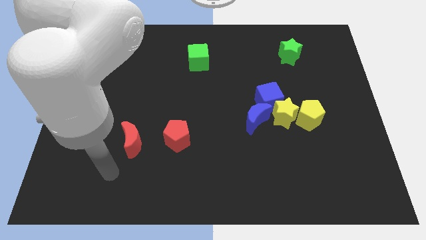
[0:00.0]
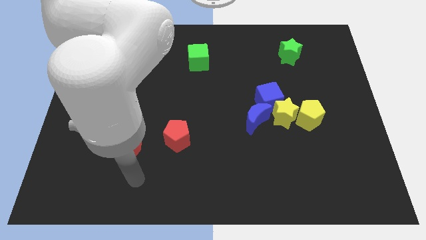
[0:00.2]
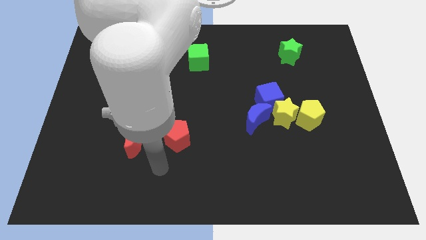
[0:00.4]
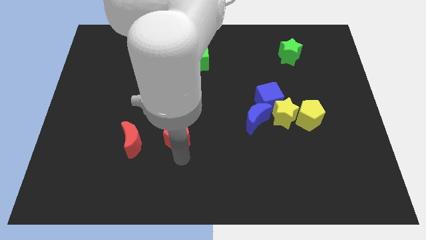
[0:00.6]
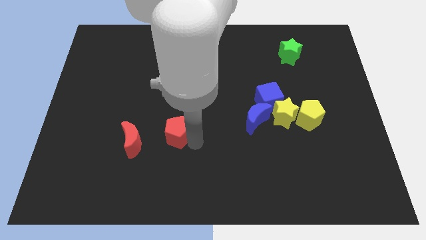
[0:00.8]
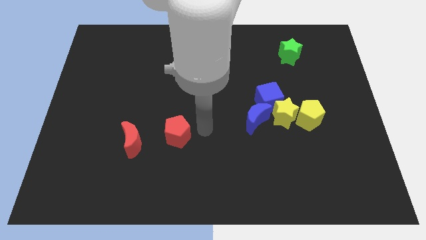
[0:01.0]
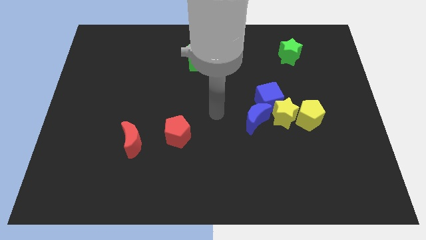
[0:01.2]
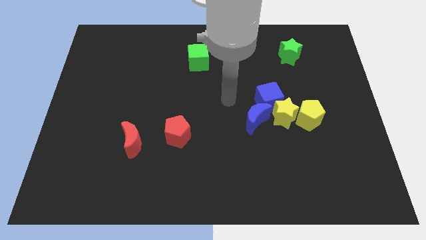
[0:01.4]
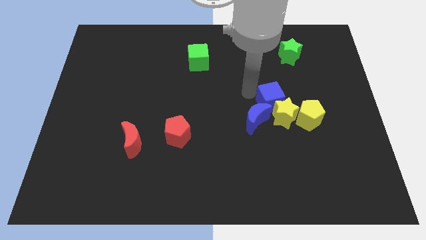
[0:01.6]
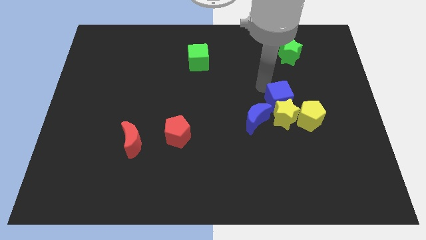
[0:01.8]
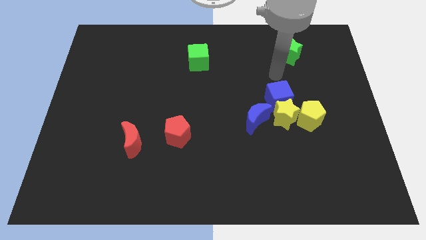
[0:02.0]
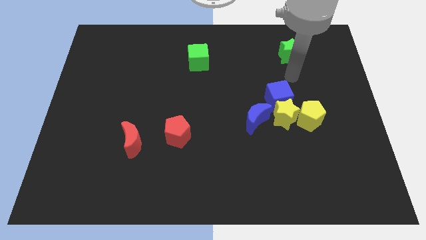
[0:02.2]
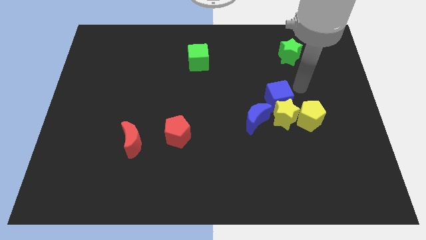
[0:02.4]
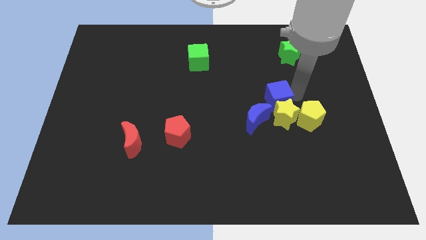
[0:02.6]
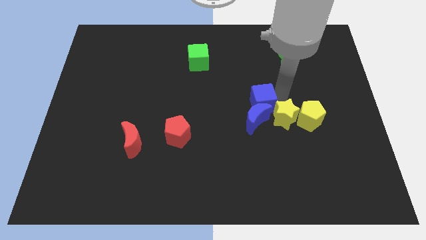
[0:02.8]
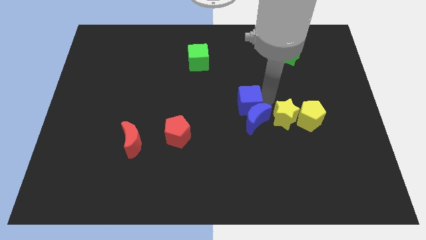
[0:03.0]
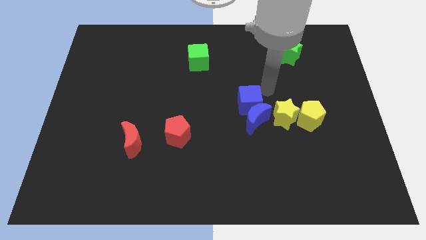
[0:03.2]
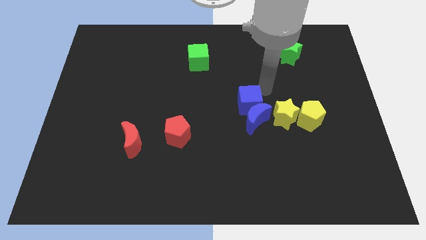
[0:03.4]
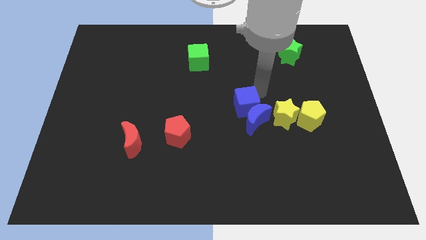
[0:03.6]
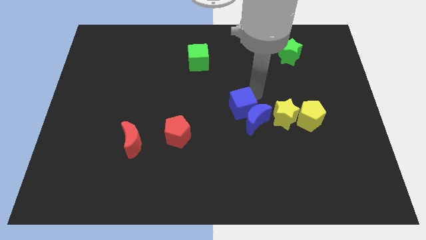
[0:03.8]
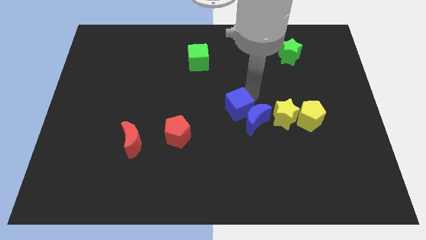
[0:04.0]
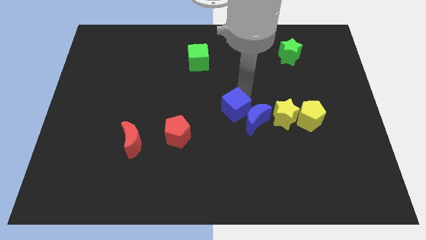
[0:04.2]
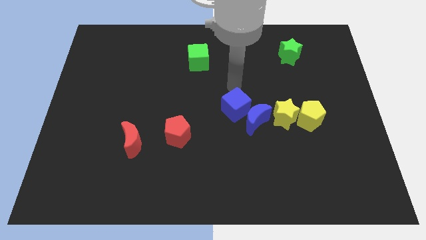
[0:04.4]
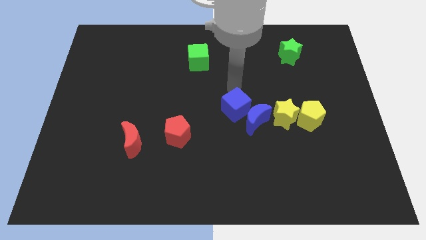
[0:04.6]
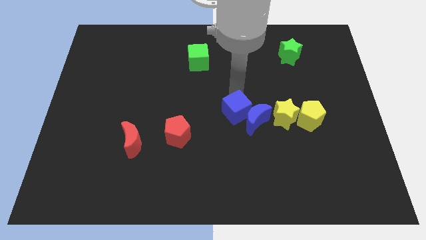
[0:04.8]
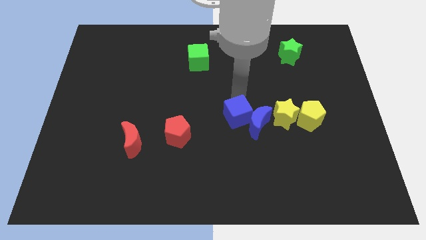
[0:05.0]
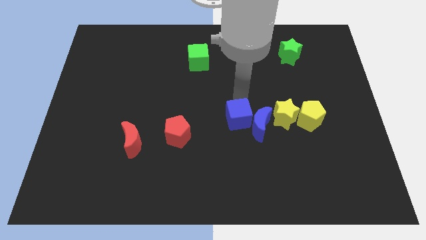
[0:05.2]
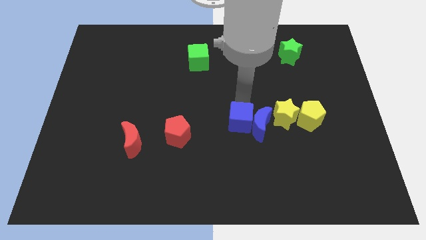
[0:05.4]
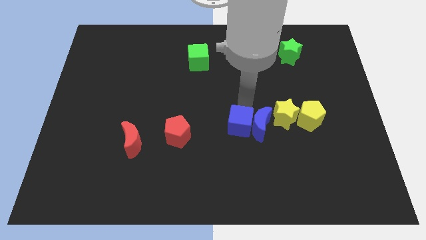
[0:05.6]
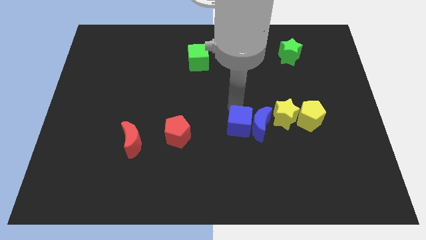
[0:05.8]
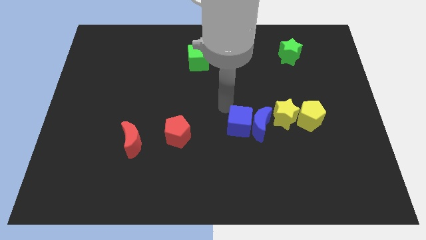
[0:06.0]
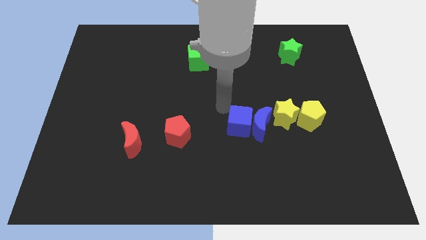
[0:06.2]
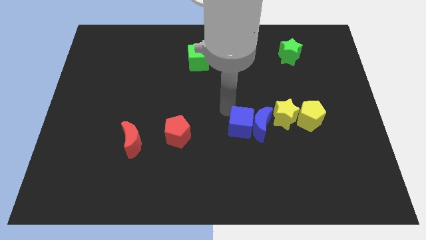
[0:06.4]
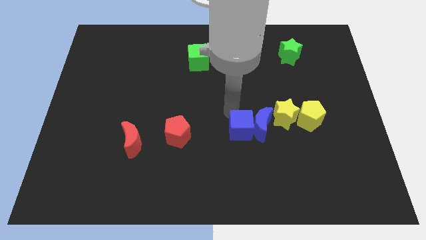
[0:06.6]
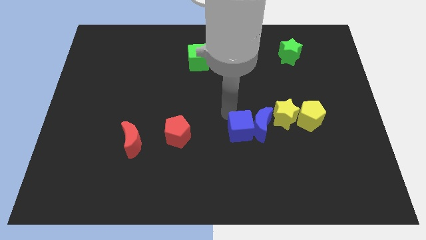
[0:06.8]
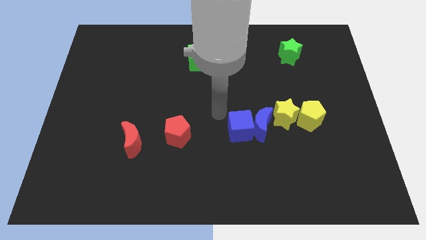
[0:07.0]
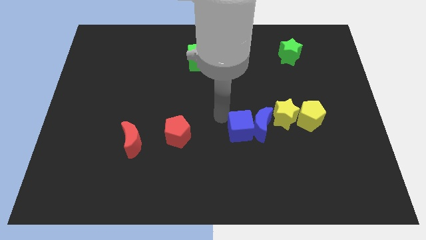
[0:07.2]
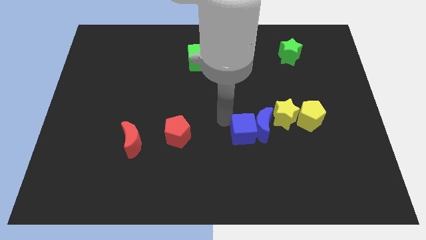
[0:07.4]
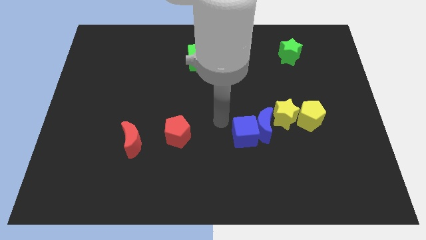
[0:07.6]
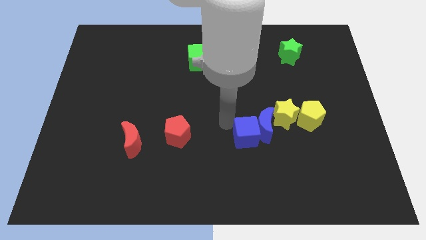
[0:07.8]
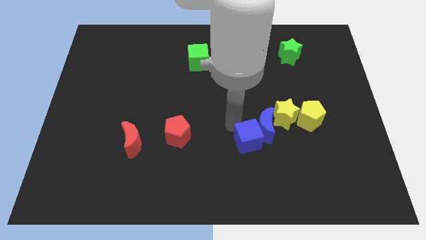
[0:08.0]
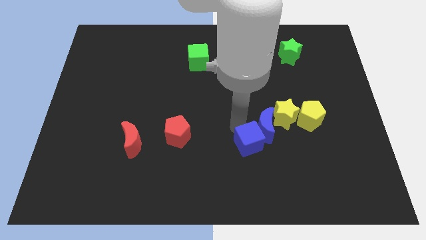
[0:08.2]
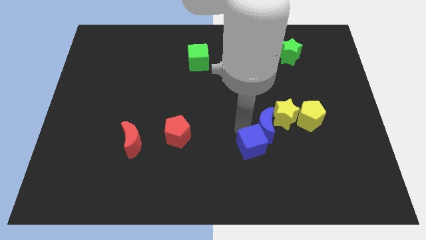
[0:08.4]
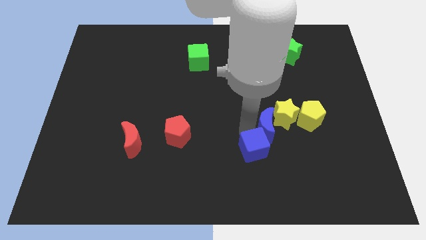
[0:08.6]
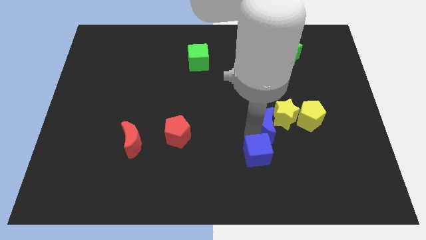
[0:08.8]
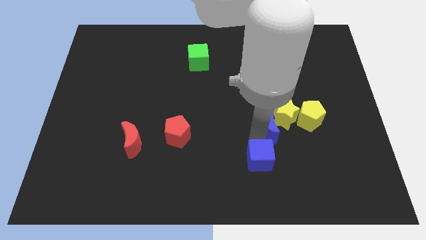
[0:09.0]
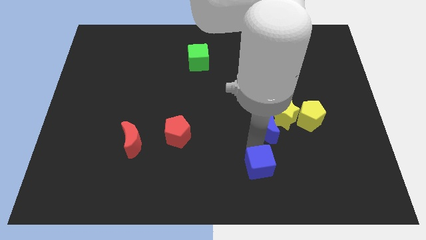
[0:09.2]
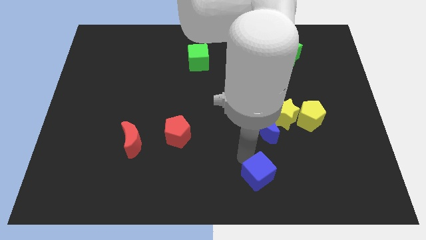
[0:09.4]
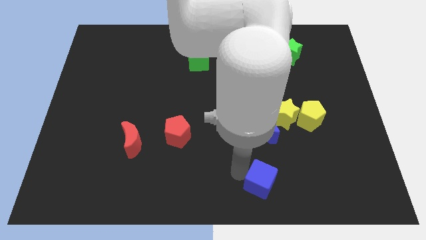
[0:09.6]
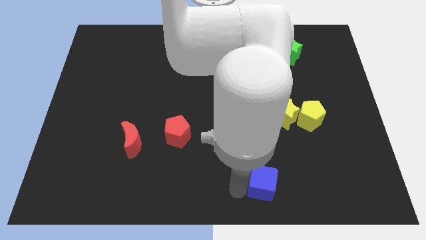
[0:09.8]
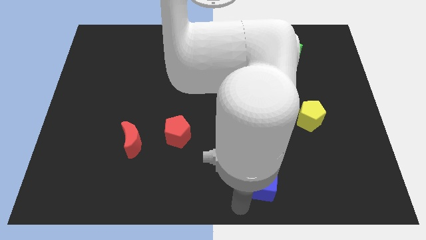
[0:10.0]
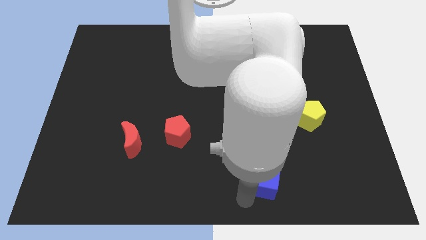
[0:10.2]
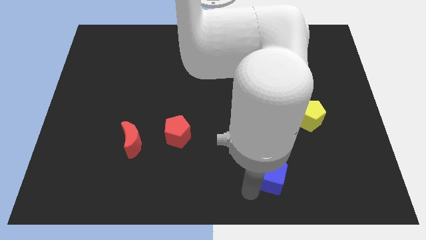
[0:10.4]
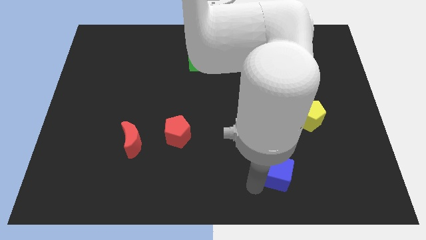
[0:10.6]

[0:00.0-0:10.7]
put the blue cube to the bottom of the yellow star

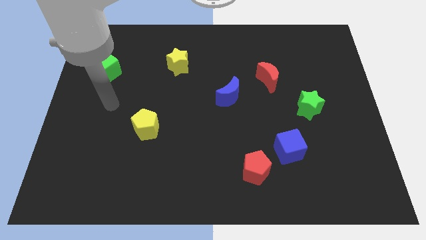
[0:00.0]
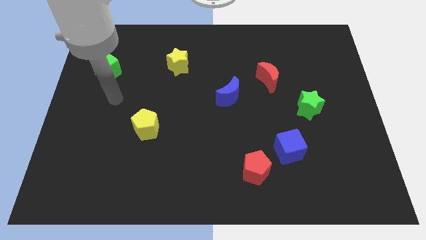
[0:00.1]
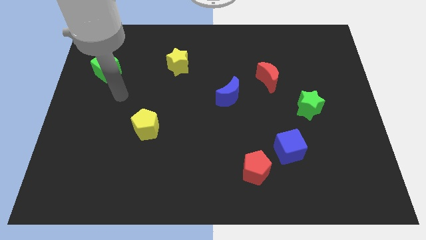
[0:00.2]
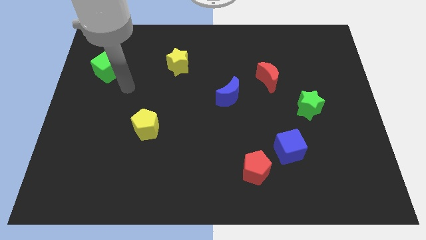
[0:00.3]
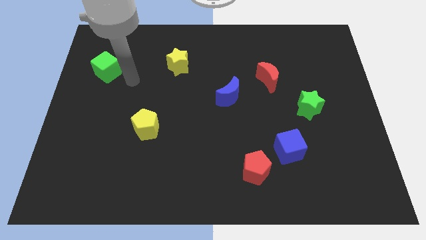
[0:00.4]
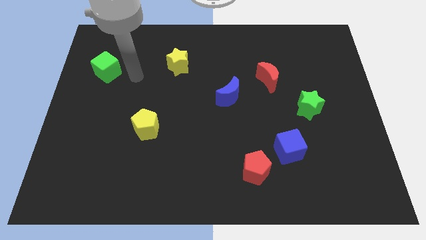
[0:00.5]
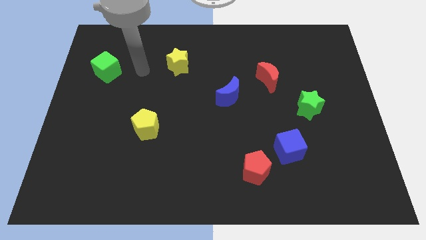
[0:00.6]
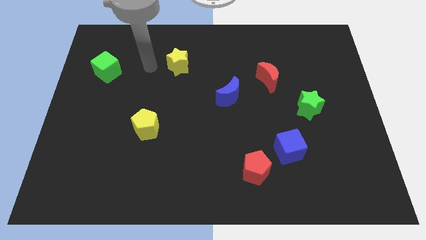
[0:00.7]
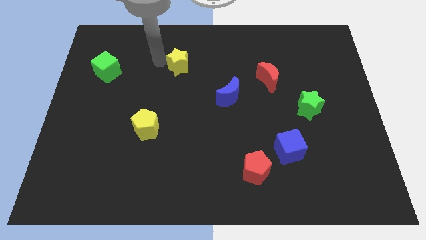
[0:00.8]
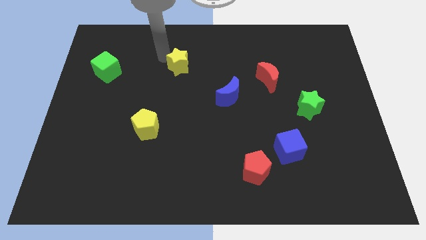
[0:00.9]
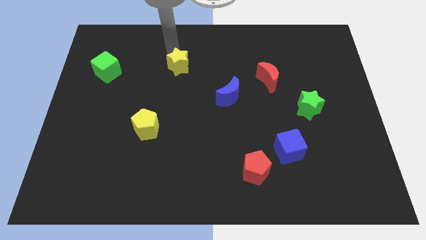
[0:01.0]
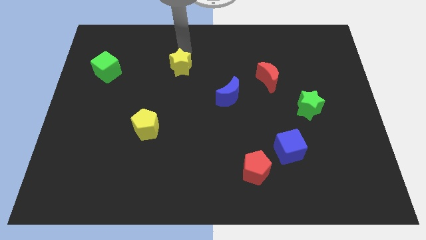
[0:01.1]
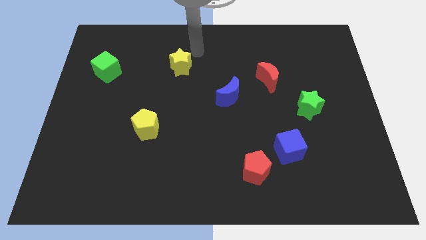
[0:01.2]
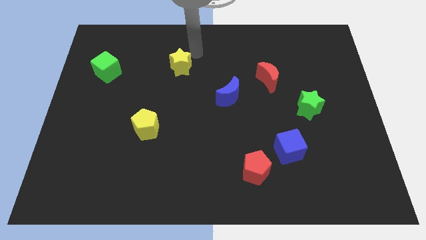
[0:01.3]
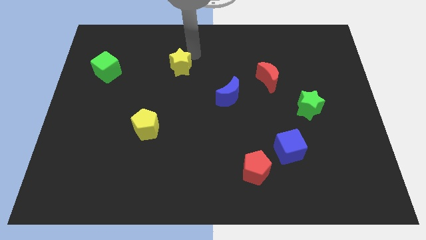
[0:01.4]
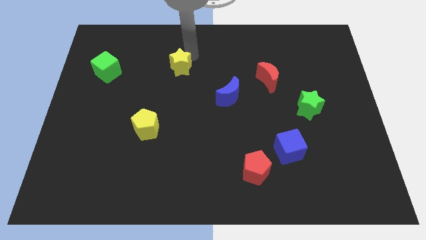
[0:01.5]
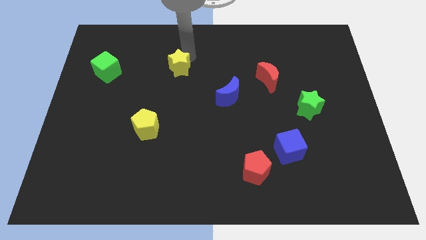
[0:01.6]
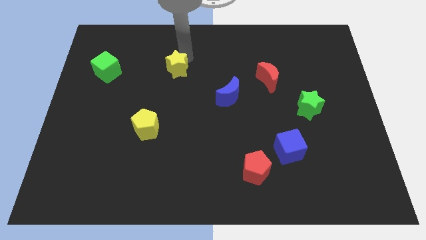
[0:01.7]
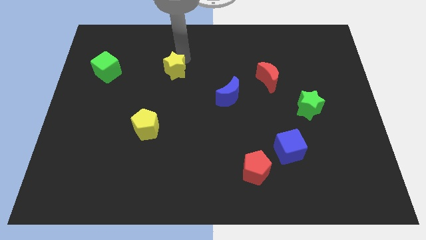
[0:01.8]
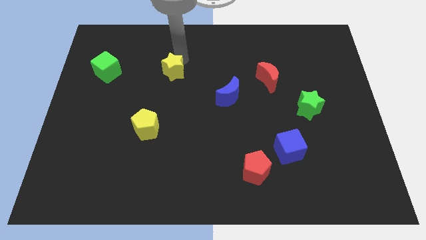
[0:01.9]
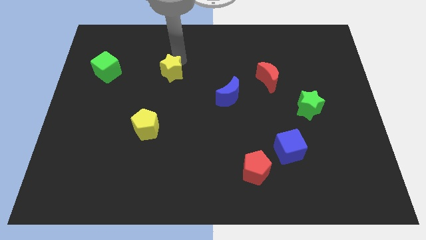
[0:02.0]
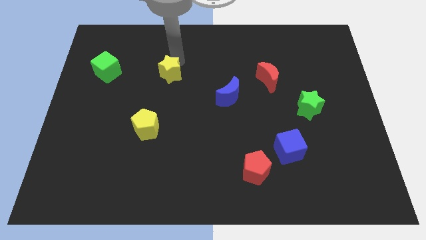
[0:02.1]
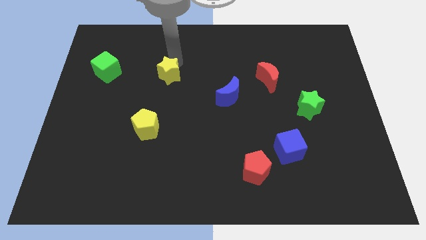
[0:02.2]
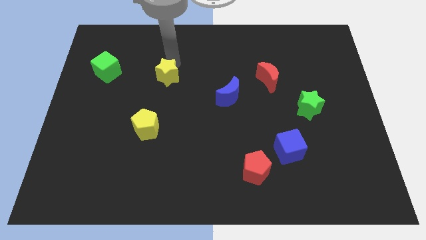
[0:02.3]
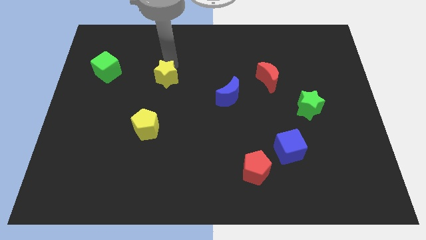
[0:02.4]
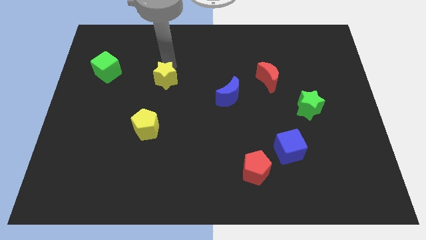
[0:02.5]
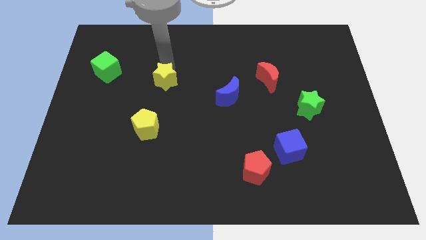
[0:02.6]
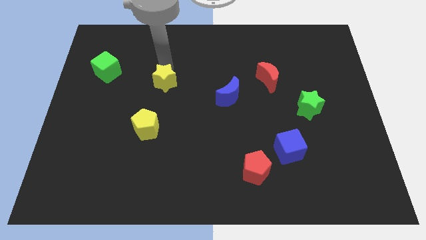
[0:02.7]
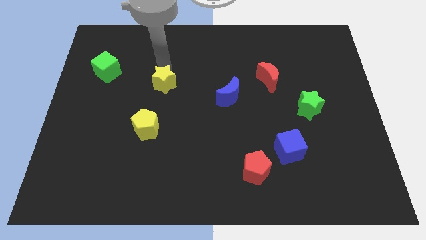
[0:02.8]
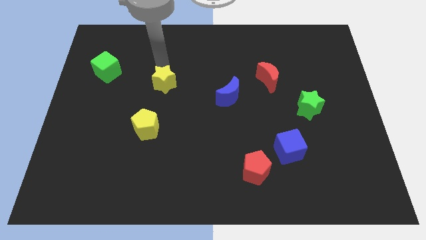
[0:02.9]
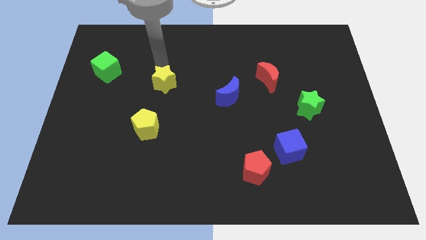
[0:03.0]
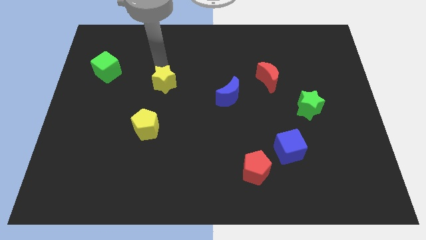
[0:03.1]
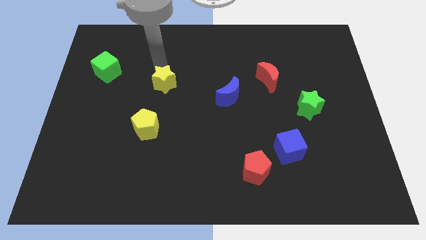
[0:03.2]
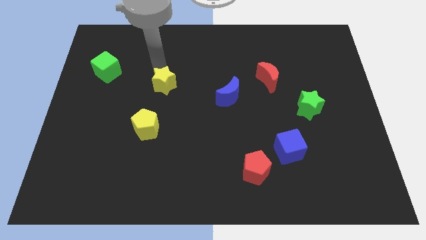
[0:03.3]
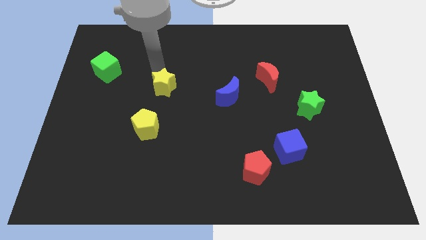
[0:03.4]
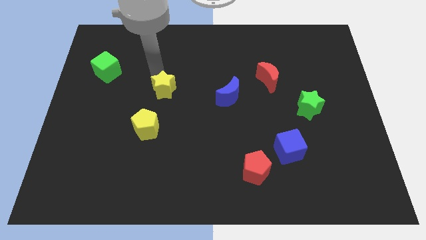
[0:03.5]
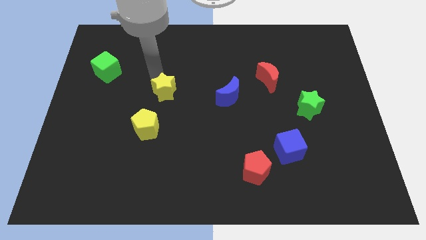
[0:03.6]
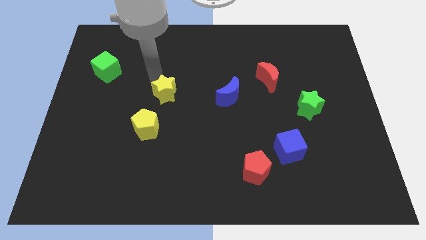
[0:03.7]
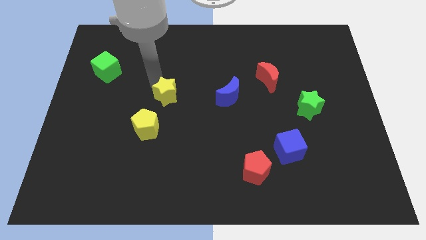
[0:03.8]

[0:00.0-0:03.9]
slide the yellow star to the top right of the yellow pentagon
